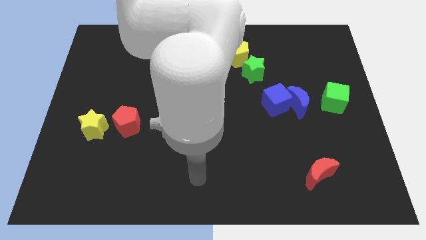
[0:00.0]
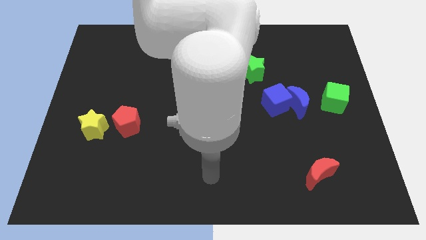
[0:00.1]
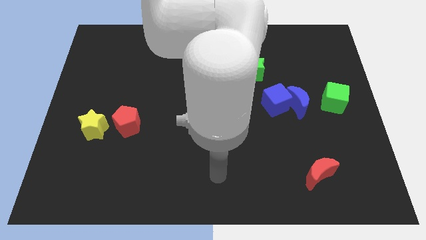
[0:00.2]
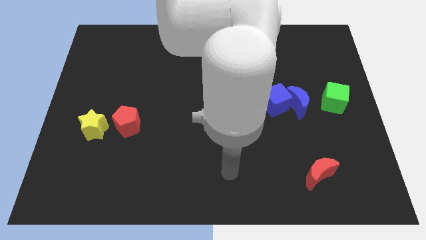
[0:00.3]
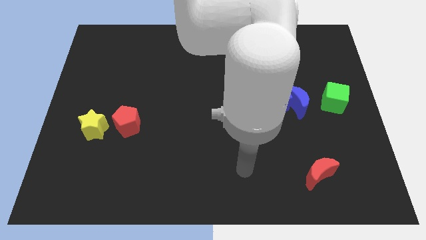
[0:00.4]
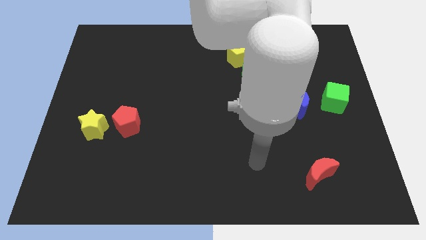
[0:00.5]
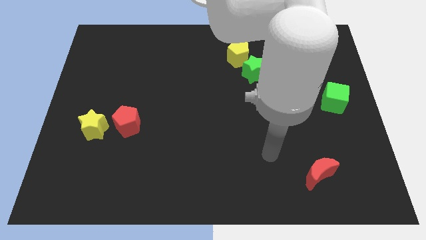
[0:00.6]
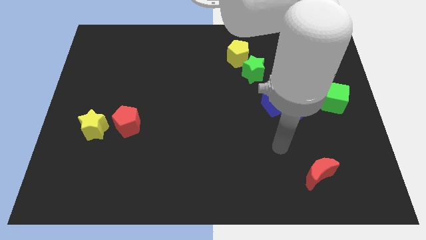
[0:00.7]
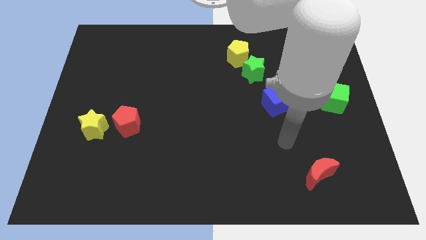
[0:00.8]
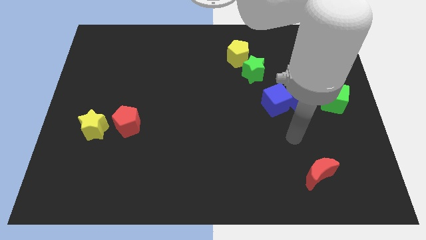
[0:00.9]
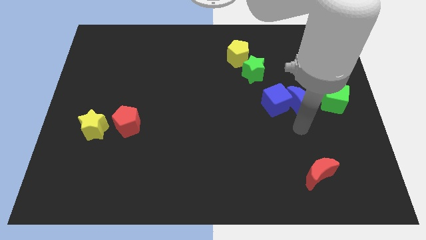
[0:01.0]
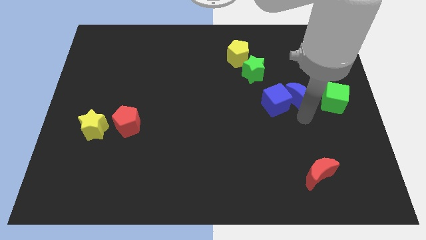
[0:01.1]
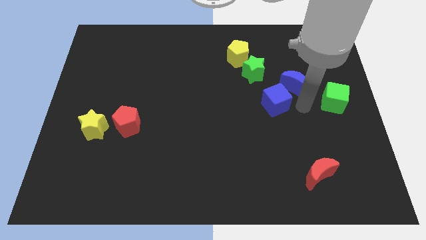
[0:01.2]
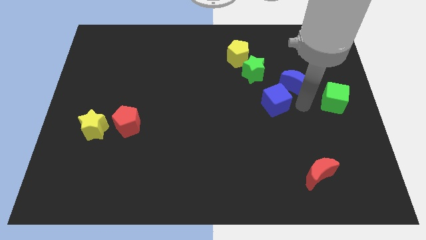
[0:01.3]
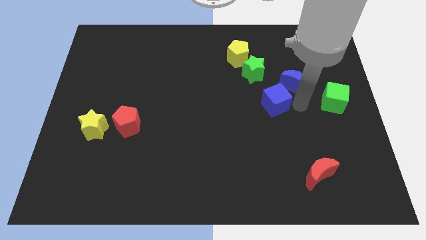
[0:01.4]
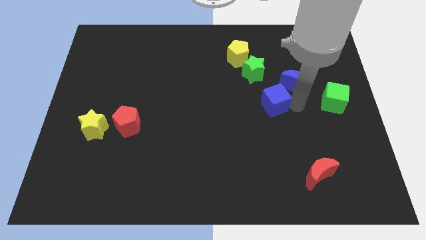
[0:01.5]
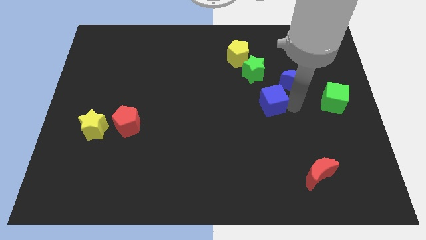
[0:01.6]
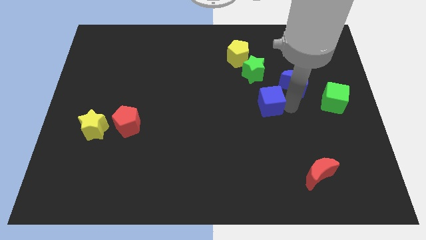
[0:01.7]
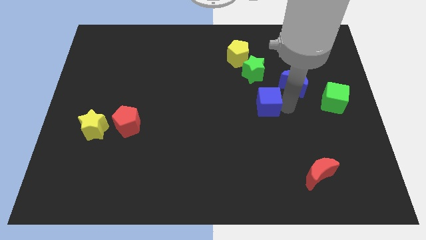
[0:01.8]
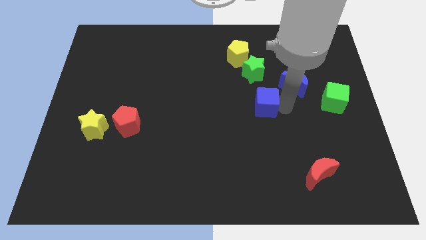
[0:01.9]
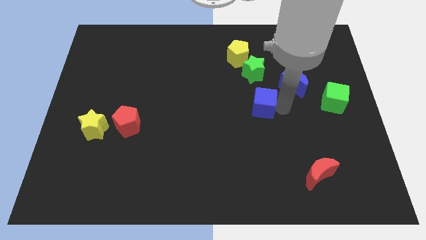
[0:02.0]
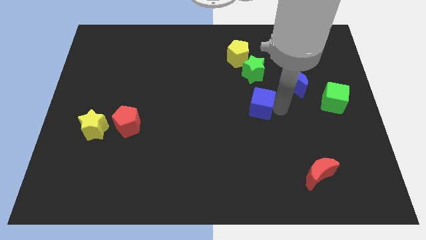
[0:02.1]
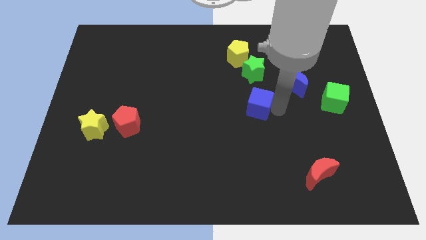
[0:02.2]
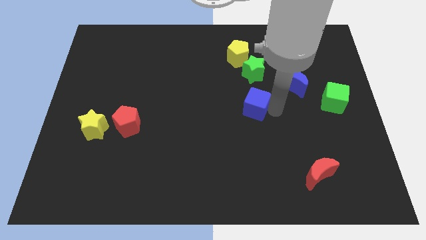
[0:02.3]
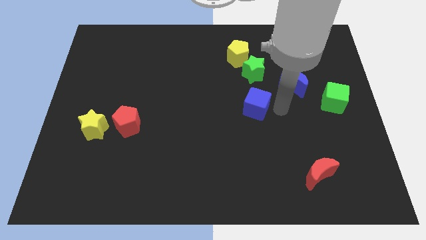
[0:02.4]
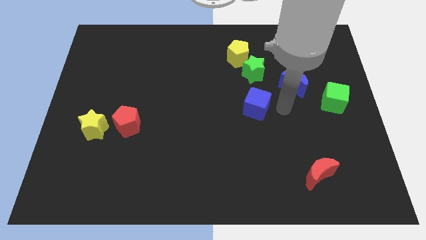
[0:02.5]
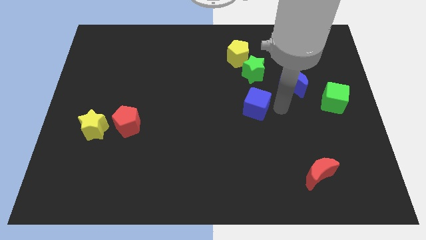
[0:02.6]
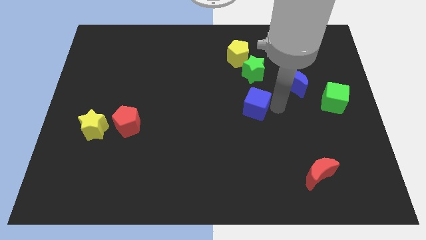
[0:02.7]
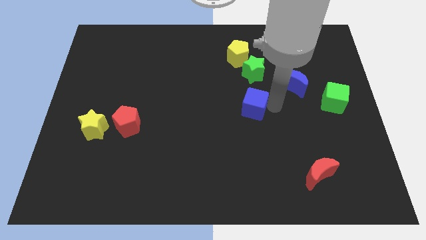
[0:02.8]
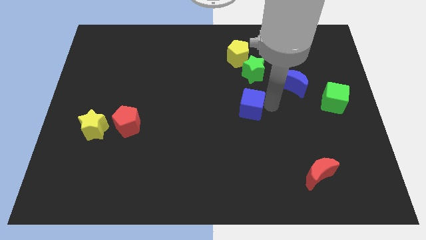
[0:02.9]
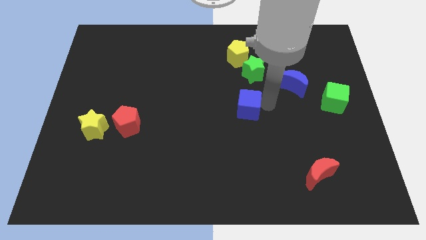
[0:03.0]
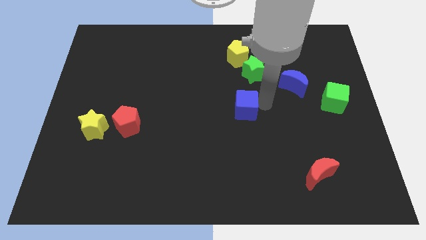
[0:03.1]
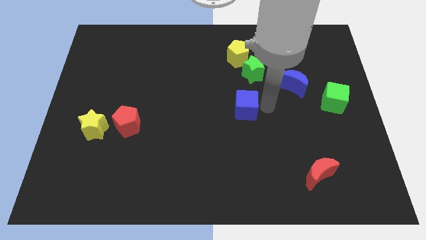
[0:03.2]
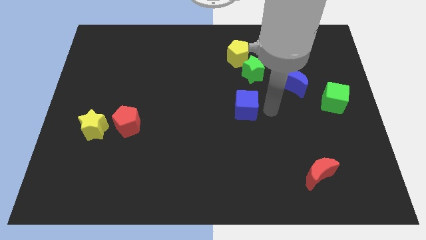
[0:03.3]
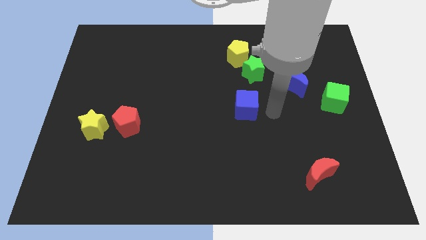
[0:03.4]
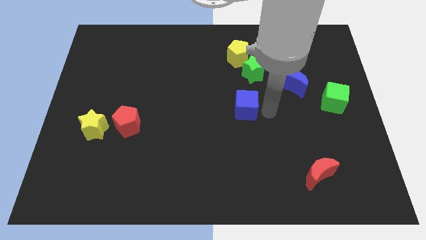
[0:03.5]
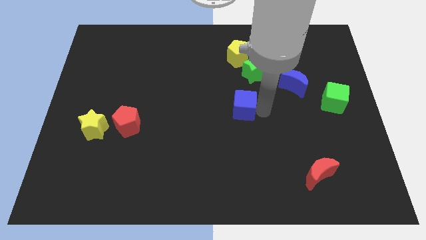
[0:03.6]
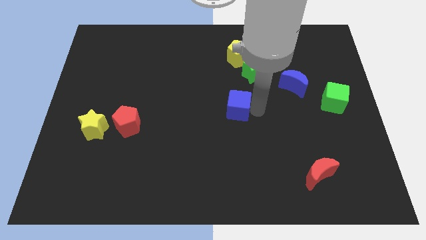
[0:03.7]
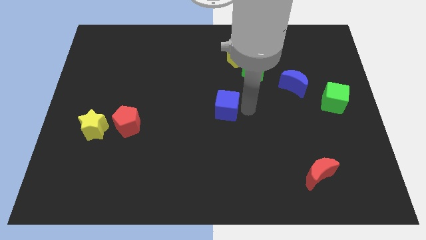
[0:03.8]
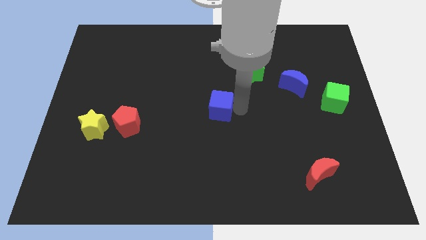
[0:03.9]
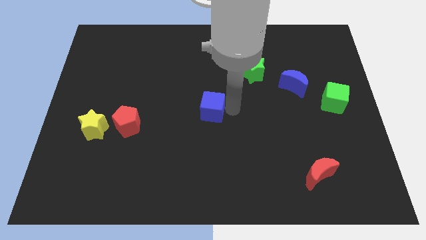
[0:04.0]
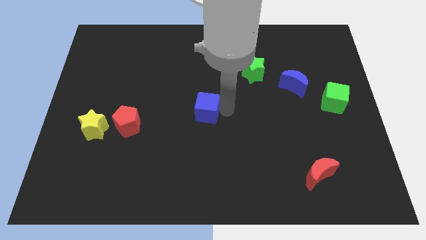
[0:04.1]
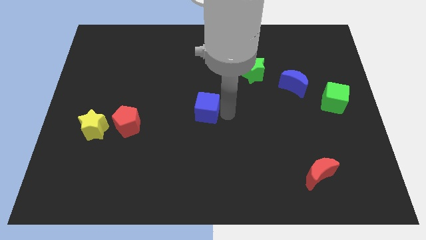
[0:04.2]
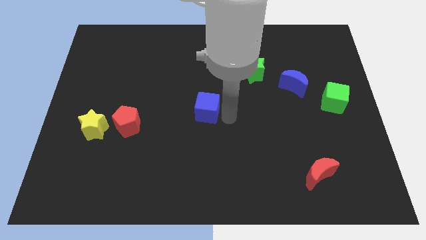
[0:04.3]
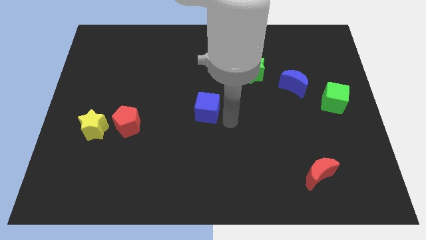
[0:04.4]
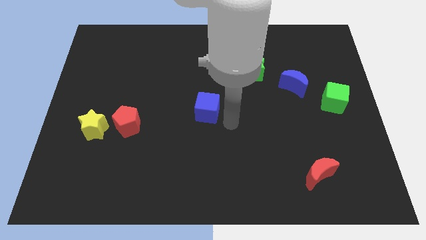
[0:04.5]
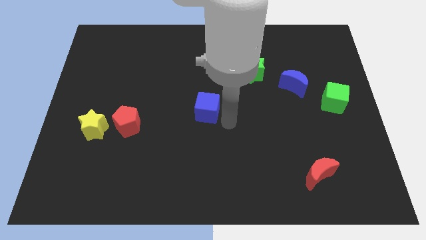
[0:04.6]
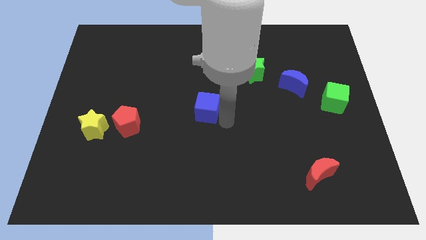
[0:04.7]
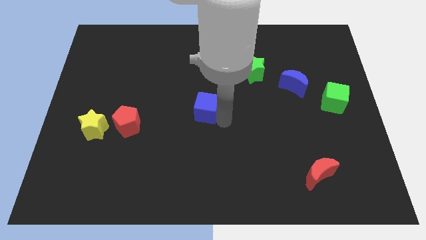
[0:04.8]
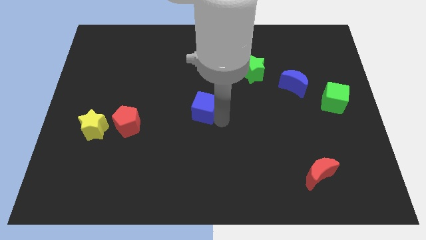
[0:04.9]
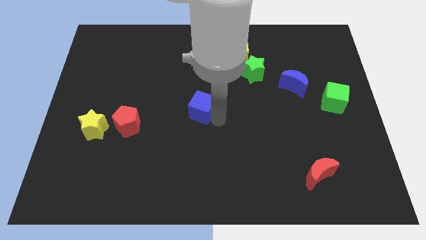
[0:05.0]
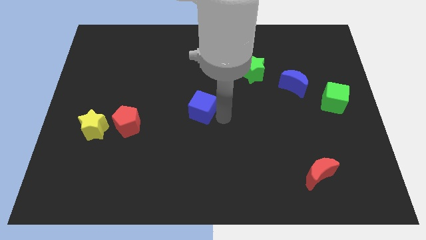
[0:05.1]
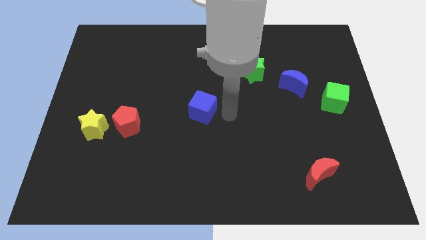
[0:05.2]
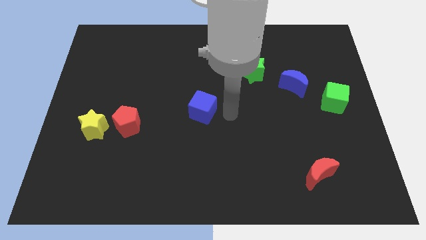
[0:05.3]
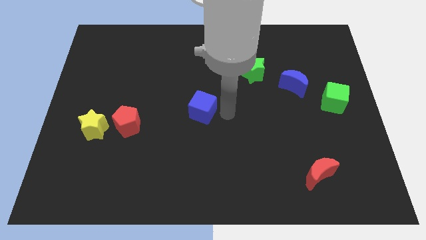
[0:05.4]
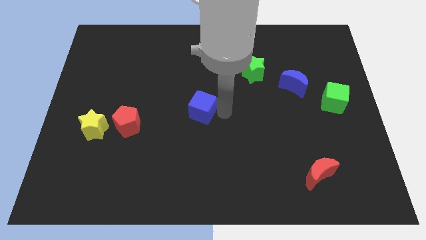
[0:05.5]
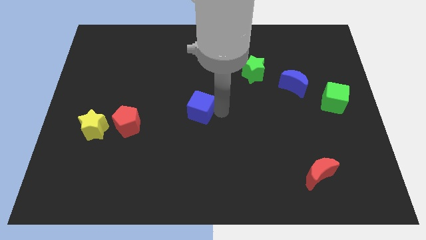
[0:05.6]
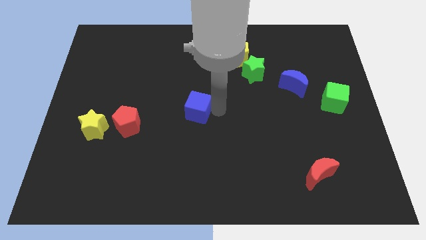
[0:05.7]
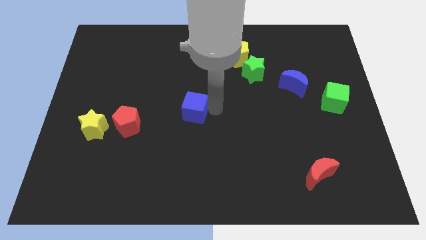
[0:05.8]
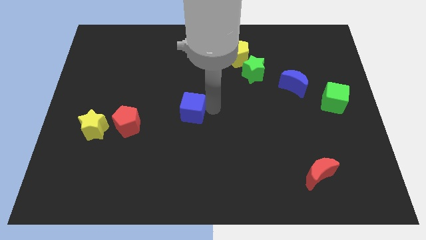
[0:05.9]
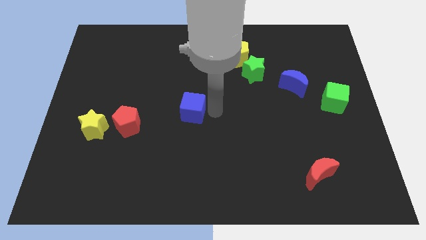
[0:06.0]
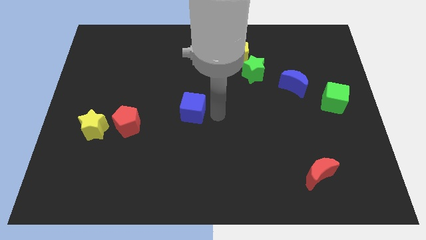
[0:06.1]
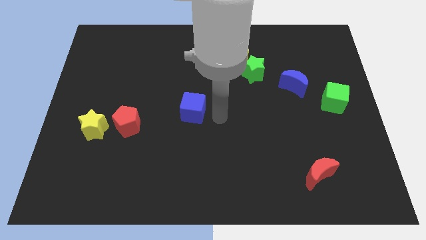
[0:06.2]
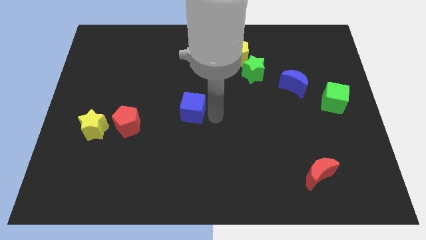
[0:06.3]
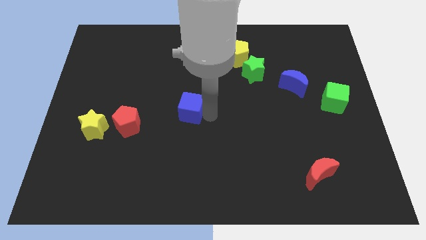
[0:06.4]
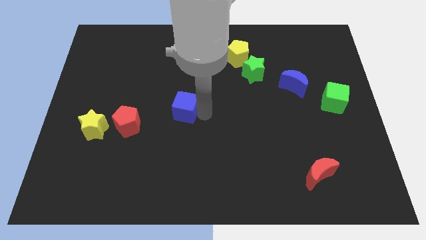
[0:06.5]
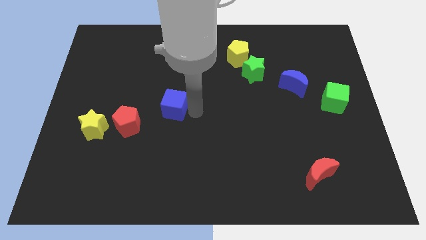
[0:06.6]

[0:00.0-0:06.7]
push the blue cube diagonally up and to the right of the red pentagon

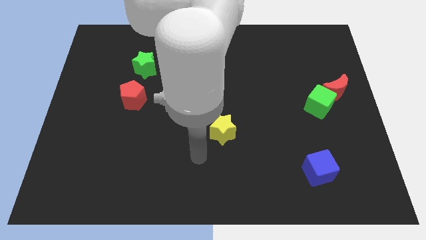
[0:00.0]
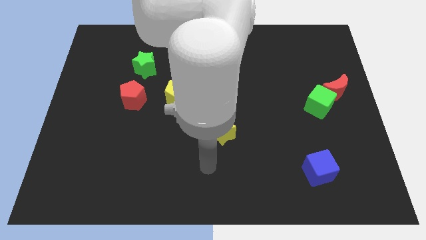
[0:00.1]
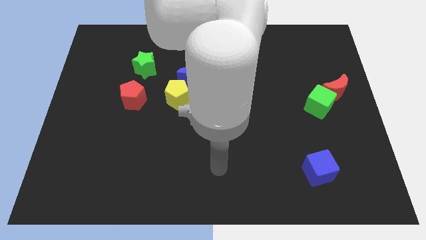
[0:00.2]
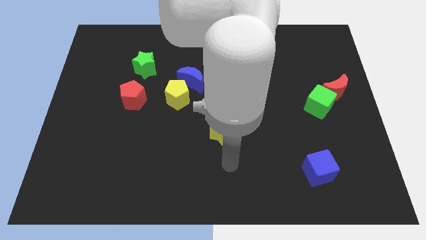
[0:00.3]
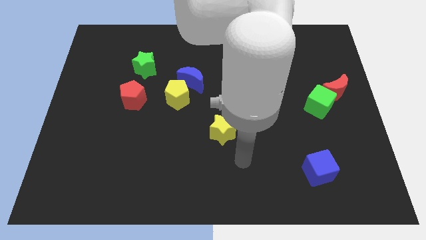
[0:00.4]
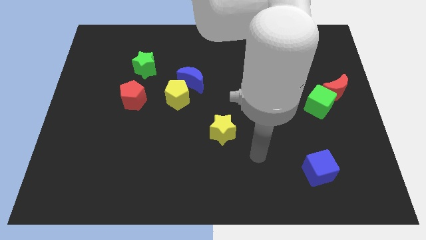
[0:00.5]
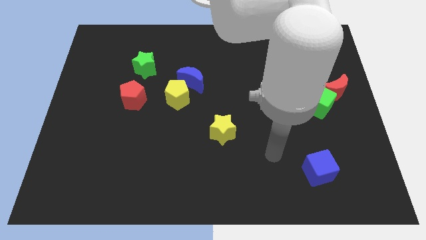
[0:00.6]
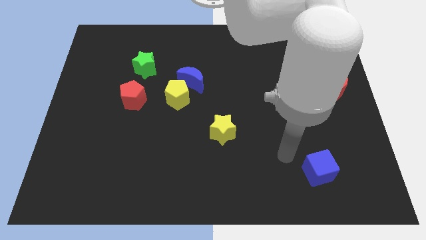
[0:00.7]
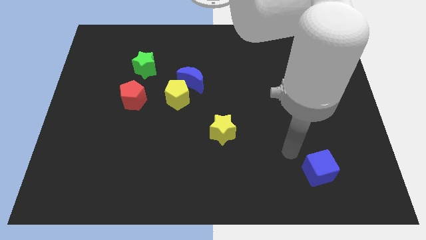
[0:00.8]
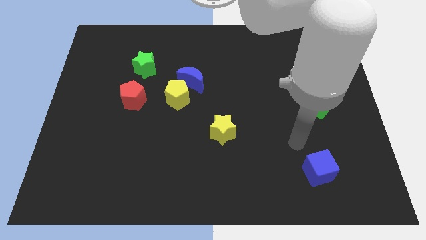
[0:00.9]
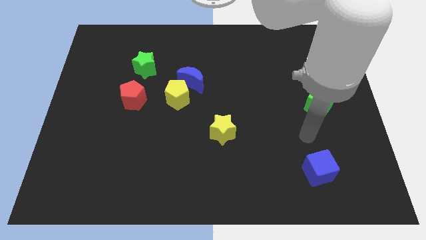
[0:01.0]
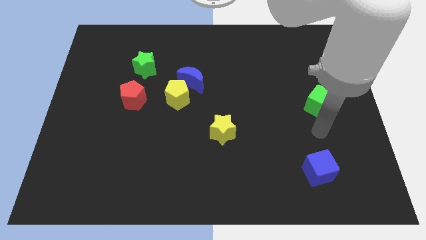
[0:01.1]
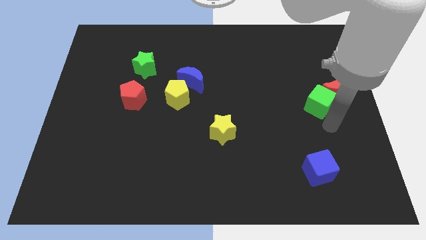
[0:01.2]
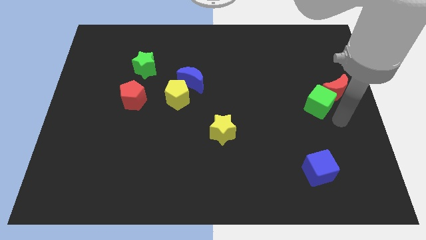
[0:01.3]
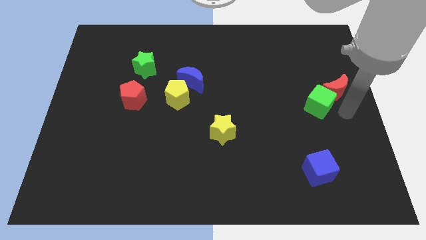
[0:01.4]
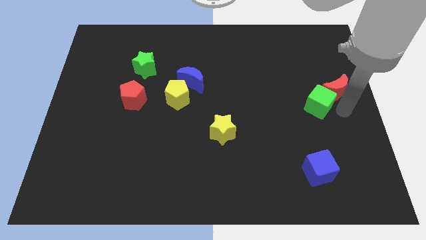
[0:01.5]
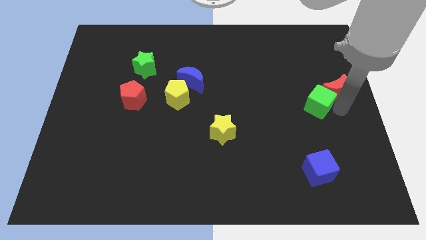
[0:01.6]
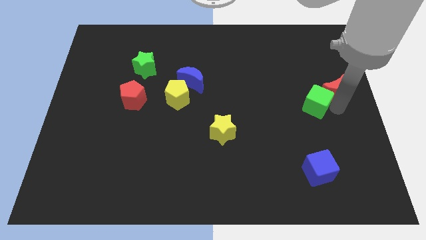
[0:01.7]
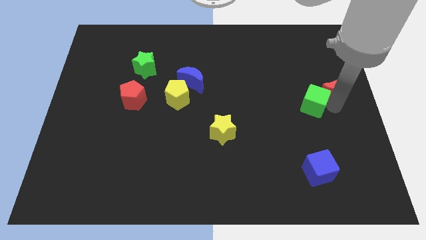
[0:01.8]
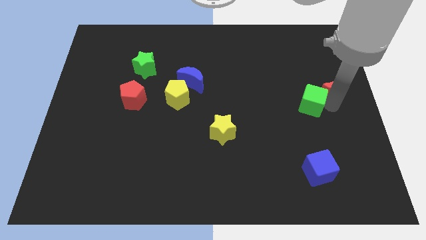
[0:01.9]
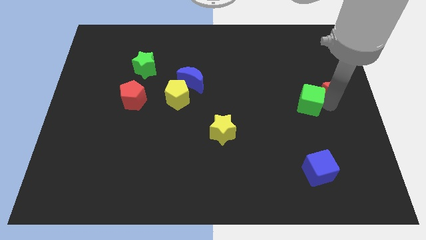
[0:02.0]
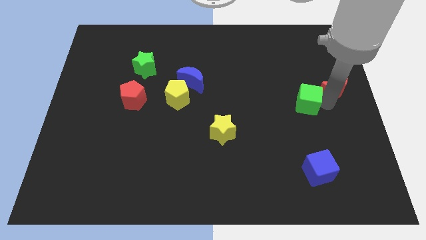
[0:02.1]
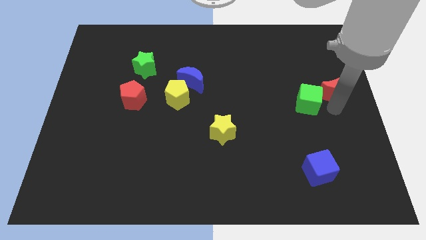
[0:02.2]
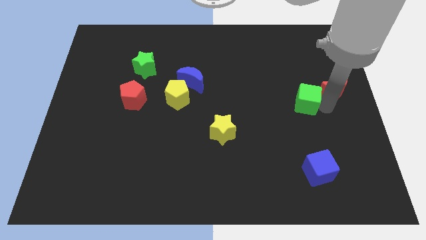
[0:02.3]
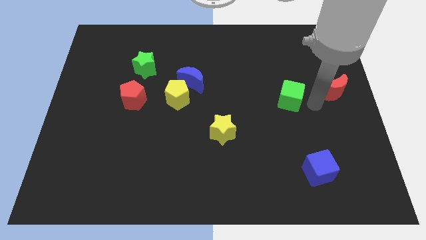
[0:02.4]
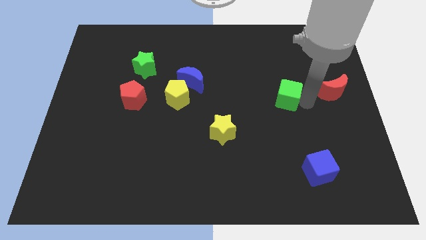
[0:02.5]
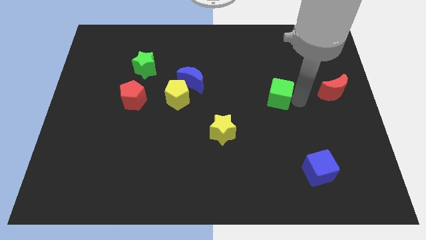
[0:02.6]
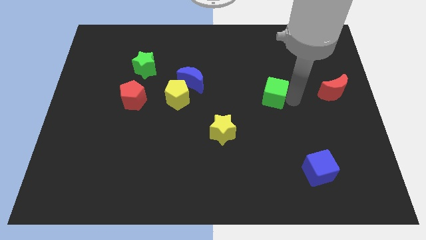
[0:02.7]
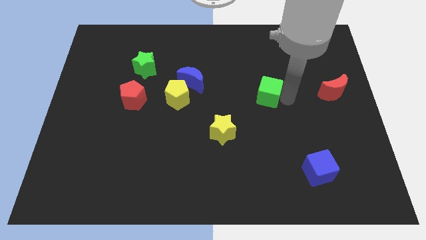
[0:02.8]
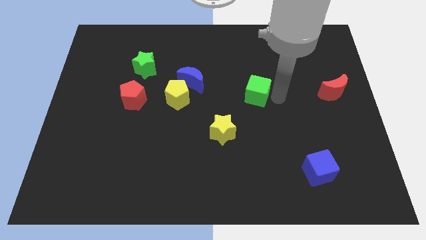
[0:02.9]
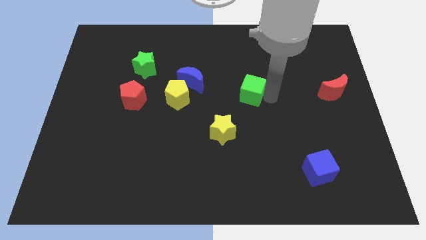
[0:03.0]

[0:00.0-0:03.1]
slide the green cube to the right of the blue moon
